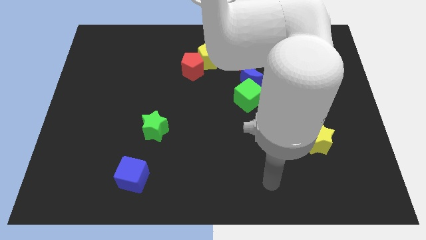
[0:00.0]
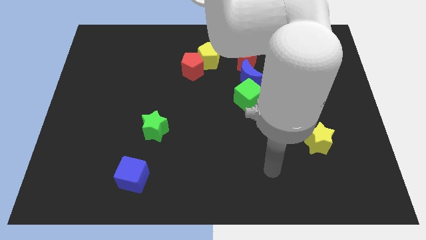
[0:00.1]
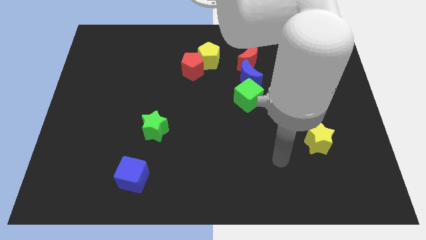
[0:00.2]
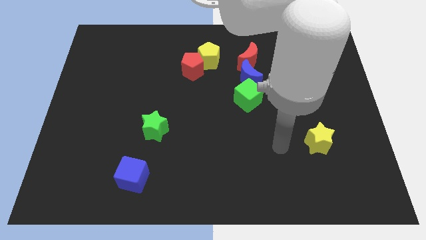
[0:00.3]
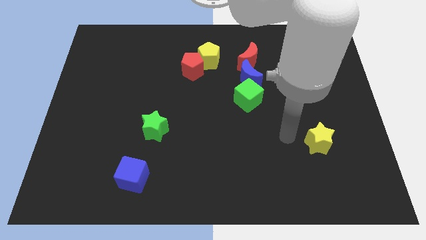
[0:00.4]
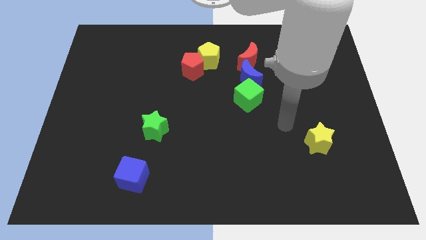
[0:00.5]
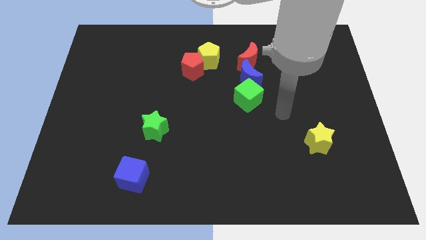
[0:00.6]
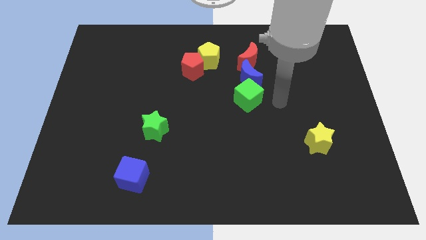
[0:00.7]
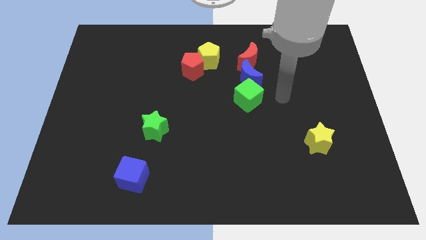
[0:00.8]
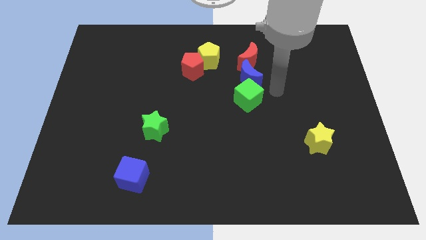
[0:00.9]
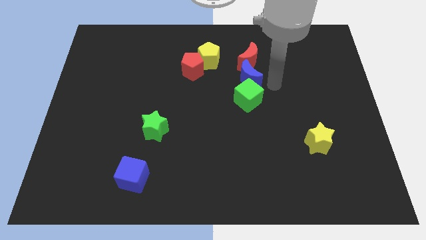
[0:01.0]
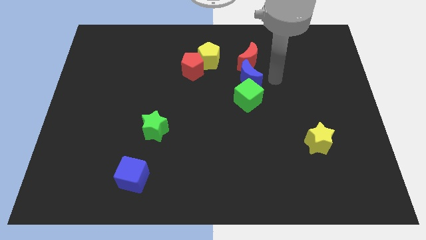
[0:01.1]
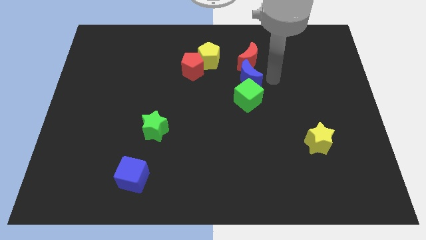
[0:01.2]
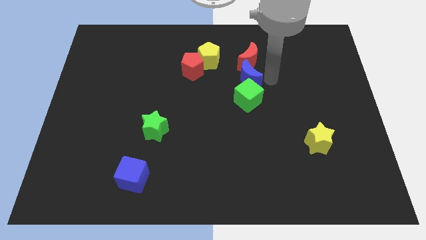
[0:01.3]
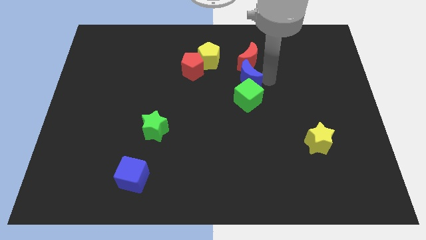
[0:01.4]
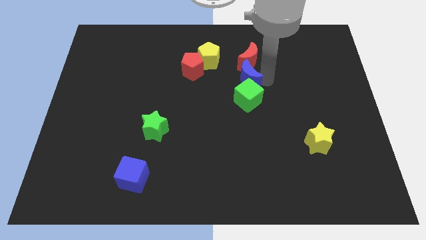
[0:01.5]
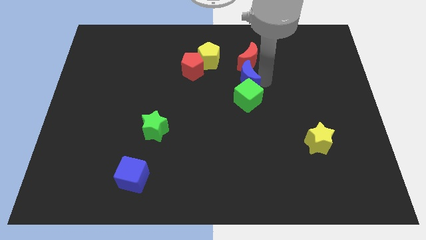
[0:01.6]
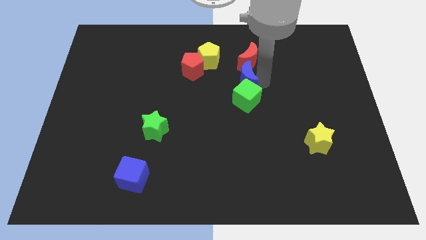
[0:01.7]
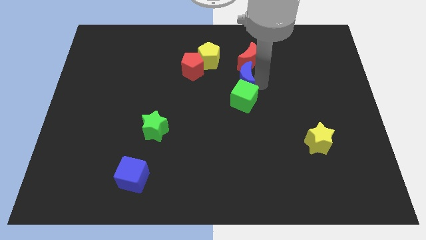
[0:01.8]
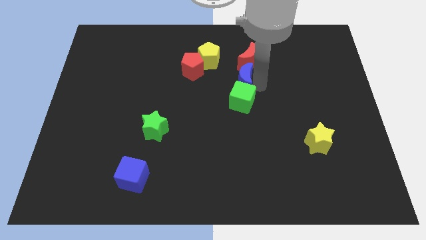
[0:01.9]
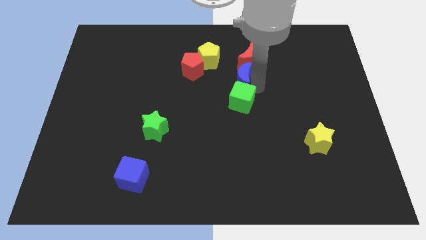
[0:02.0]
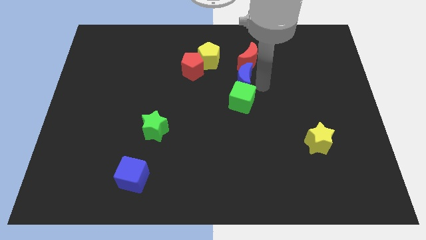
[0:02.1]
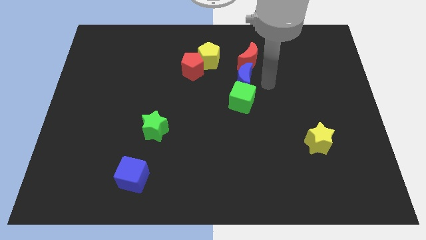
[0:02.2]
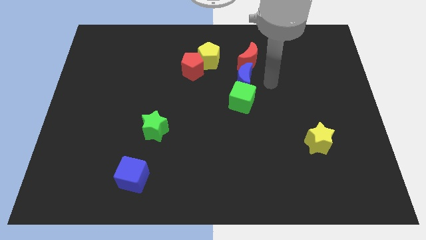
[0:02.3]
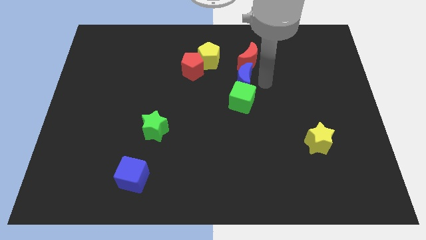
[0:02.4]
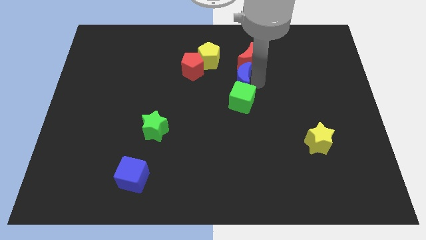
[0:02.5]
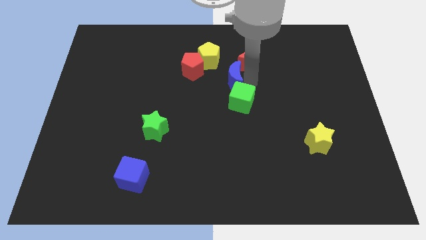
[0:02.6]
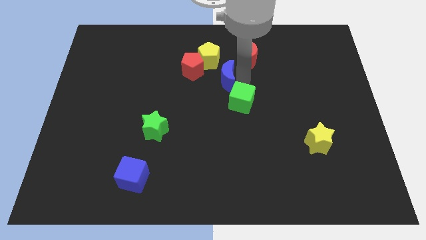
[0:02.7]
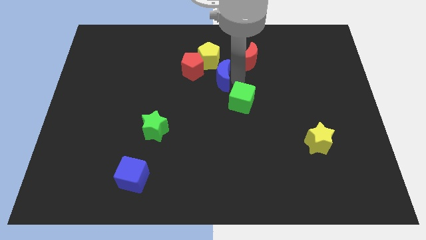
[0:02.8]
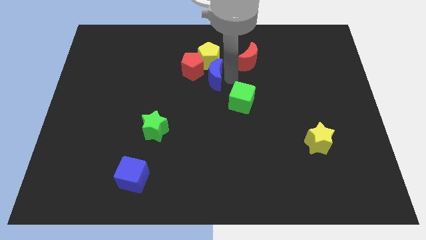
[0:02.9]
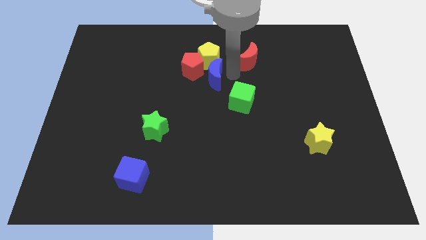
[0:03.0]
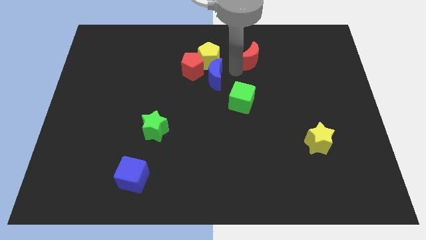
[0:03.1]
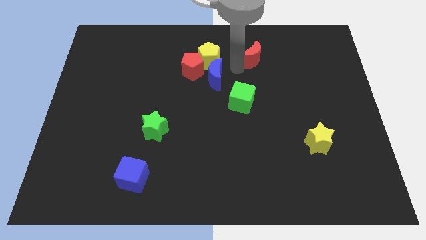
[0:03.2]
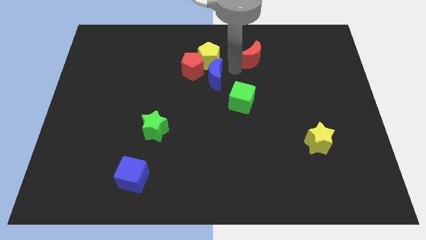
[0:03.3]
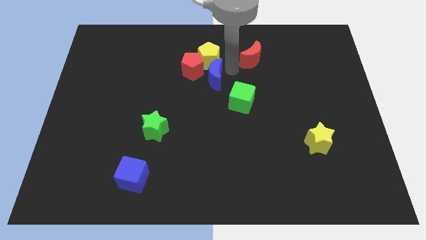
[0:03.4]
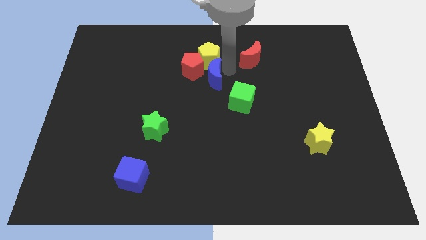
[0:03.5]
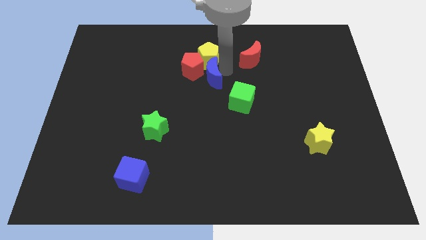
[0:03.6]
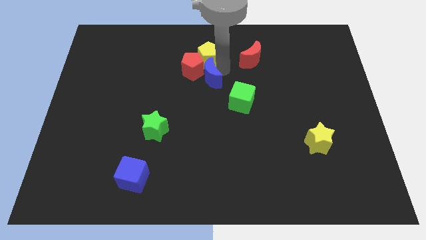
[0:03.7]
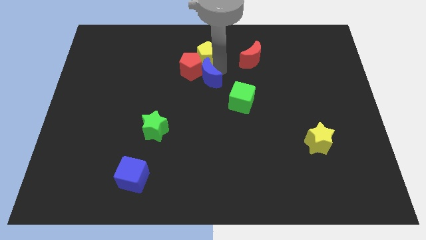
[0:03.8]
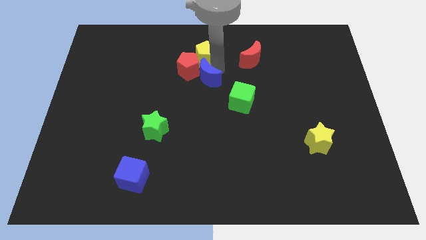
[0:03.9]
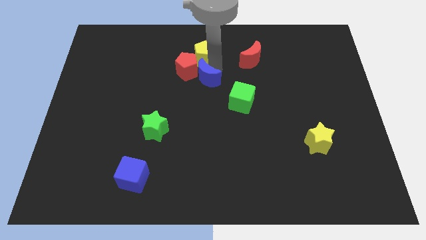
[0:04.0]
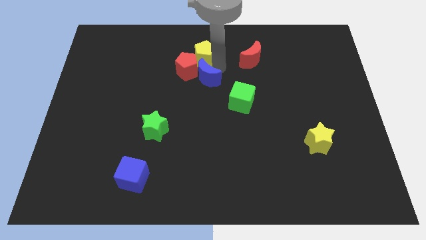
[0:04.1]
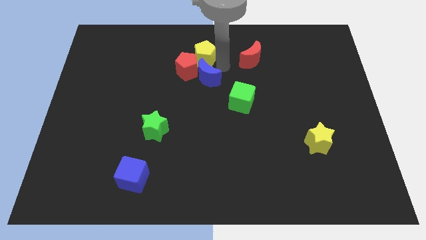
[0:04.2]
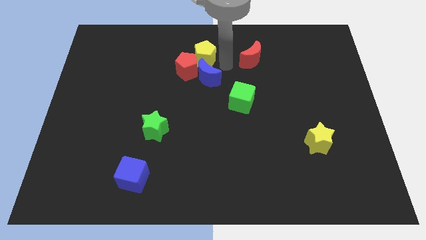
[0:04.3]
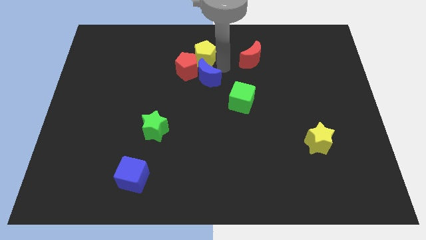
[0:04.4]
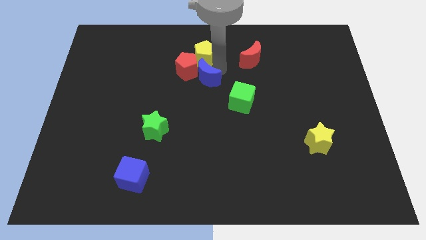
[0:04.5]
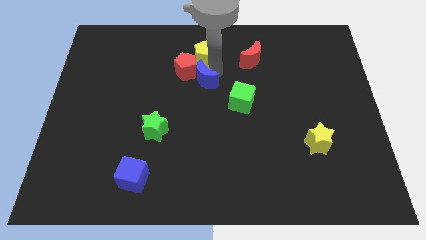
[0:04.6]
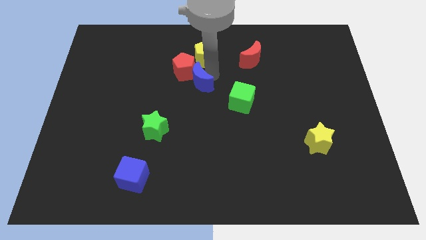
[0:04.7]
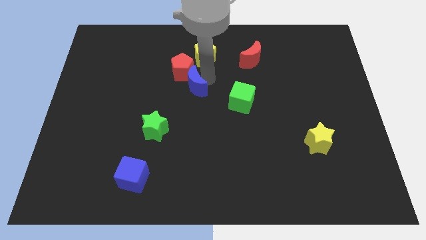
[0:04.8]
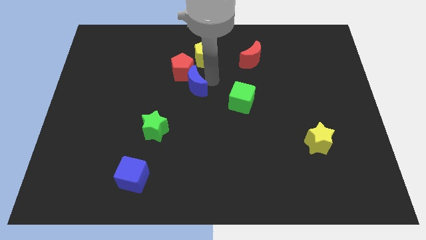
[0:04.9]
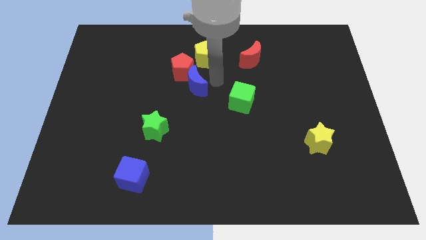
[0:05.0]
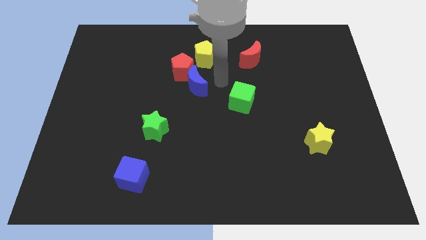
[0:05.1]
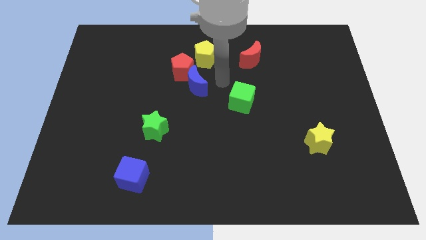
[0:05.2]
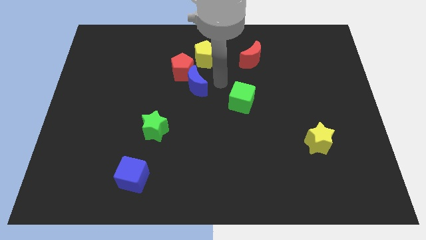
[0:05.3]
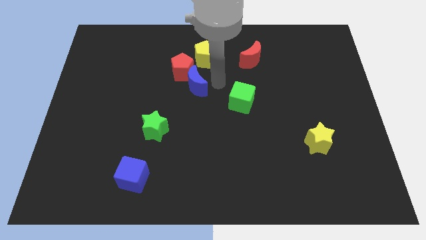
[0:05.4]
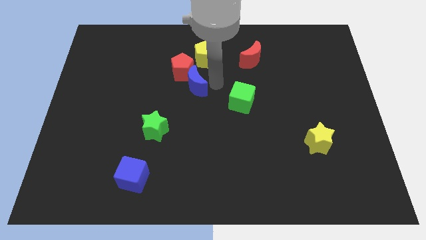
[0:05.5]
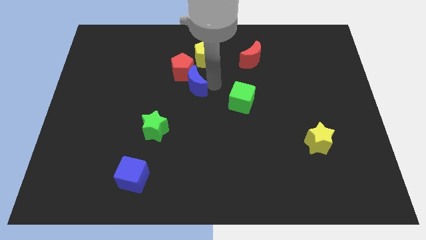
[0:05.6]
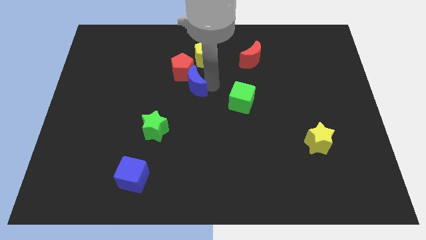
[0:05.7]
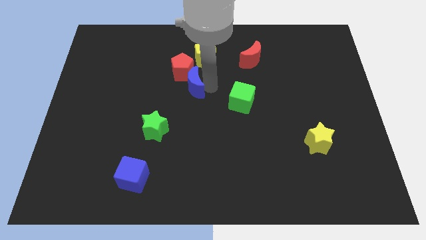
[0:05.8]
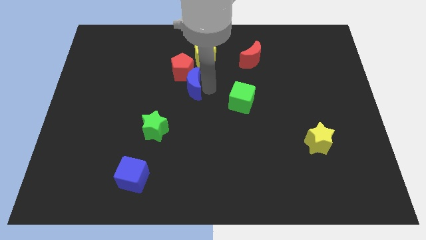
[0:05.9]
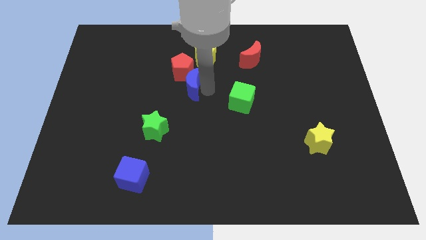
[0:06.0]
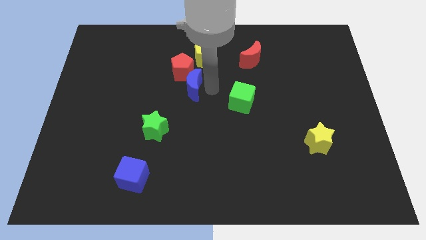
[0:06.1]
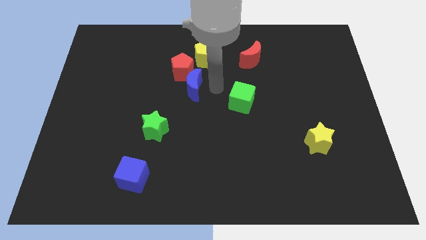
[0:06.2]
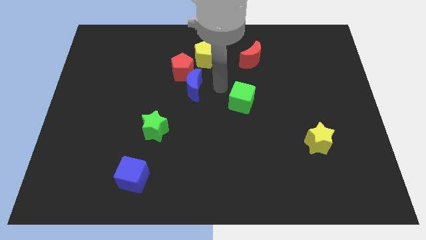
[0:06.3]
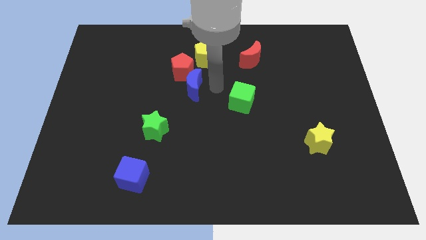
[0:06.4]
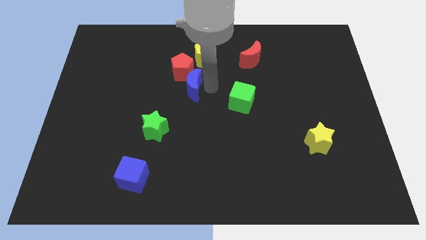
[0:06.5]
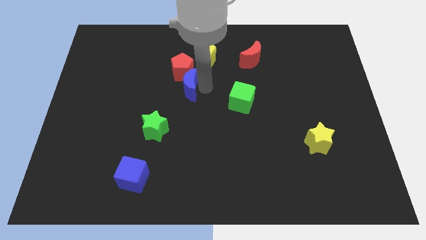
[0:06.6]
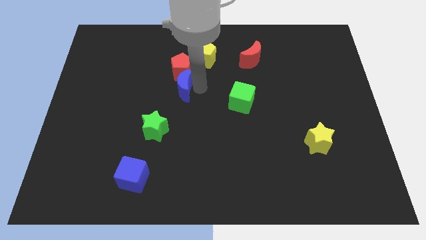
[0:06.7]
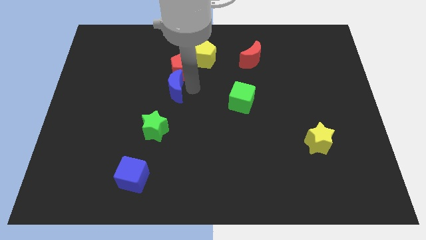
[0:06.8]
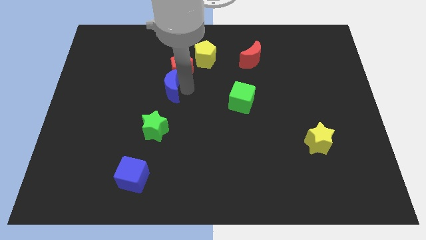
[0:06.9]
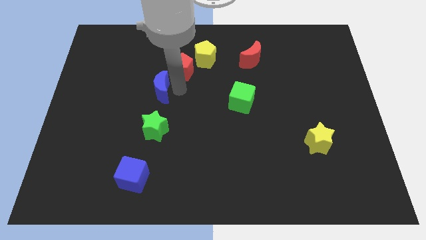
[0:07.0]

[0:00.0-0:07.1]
move the blue moon left

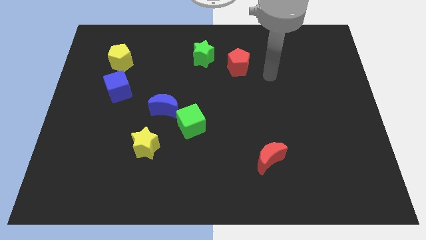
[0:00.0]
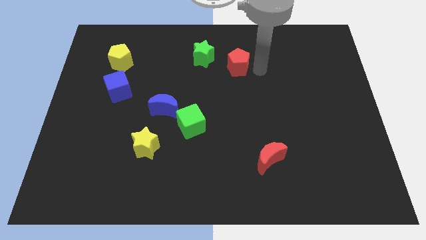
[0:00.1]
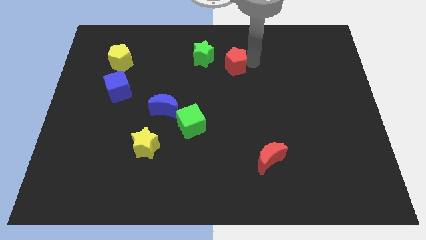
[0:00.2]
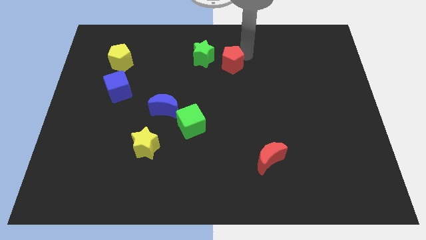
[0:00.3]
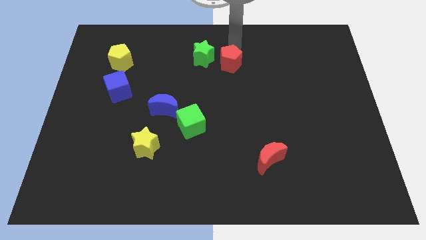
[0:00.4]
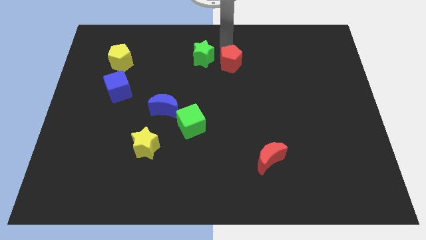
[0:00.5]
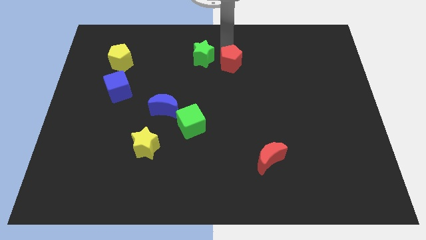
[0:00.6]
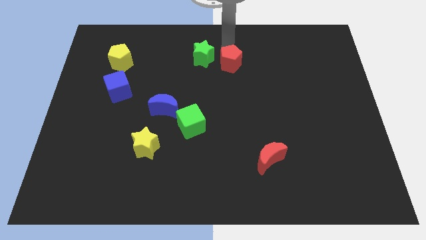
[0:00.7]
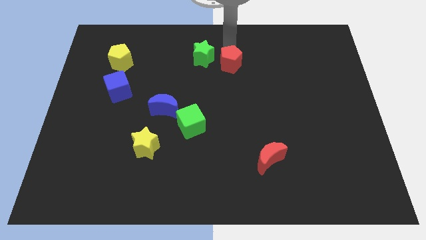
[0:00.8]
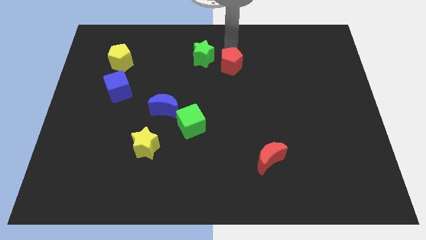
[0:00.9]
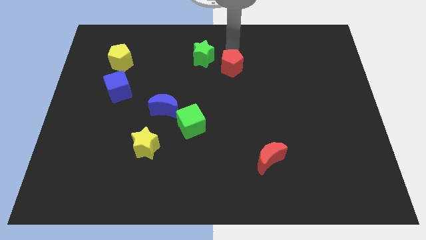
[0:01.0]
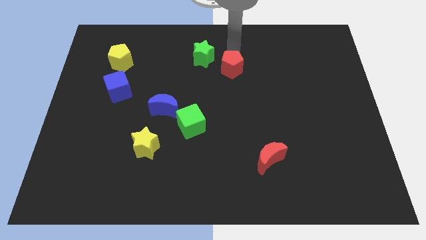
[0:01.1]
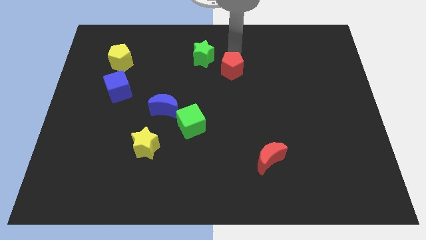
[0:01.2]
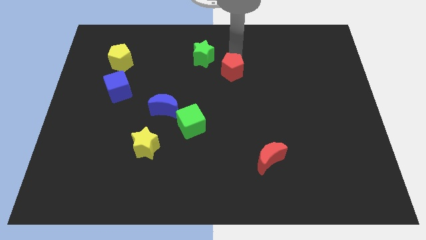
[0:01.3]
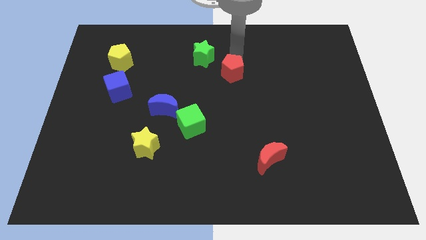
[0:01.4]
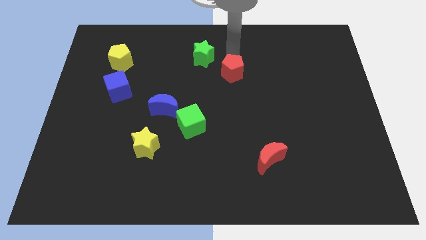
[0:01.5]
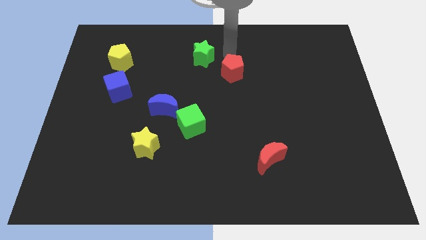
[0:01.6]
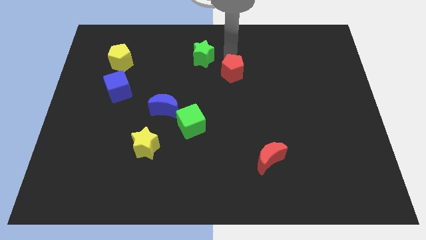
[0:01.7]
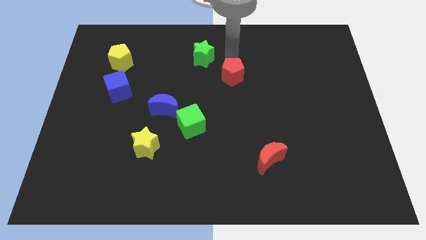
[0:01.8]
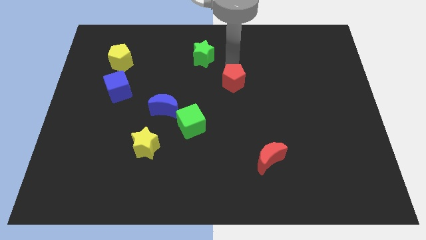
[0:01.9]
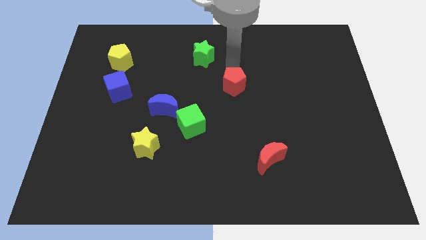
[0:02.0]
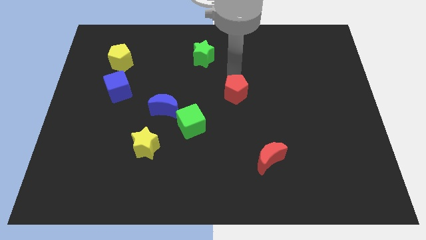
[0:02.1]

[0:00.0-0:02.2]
slide the red pentagon slightly down
